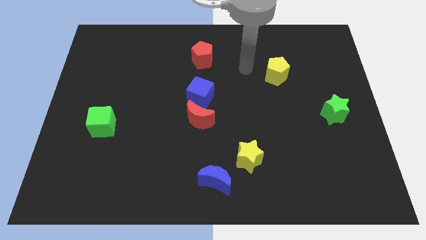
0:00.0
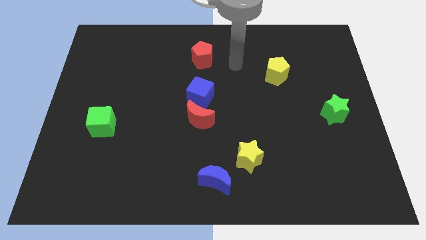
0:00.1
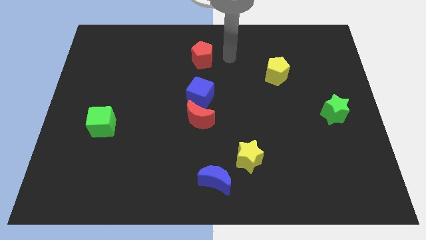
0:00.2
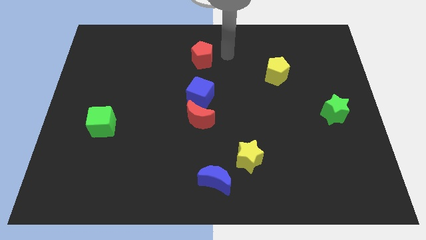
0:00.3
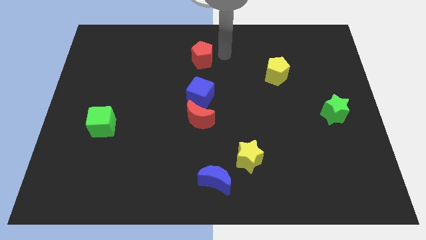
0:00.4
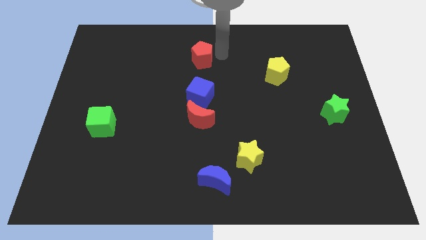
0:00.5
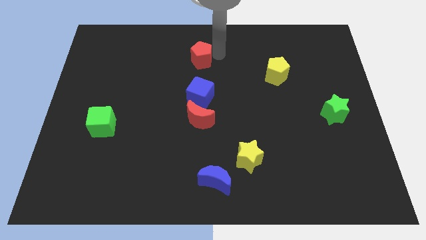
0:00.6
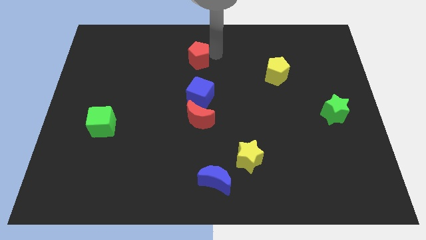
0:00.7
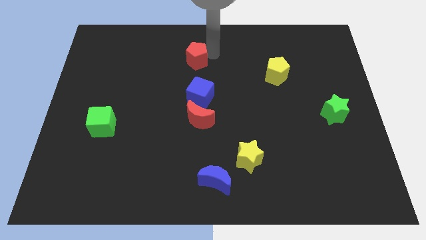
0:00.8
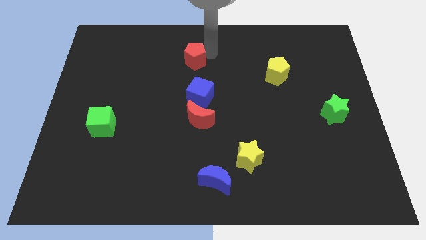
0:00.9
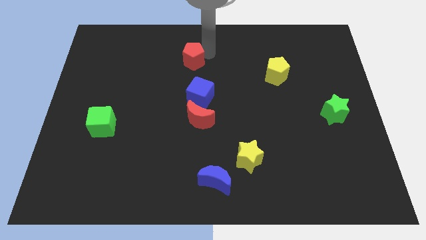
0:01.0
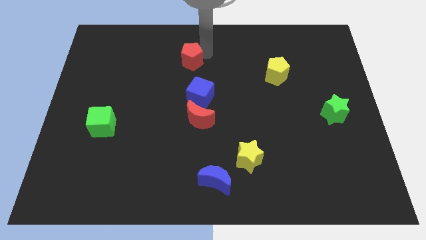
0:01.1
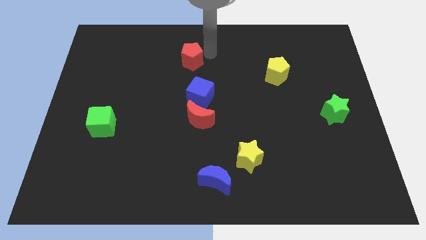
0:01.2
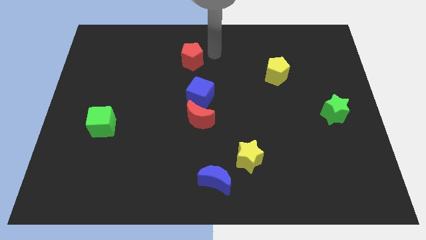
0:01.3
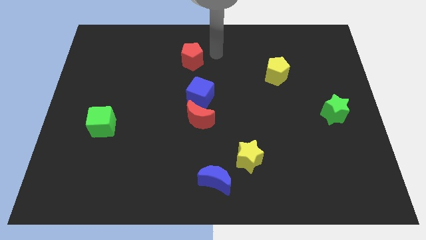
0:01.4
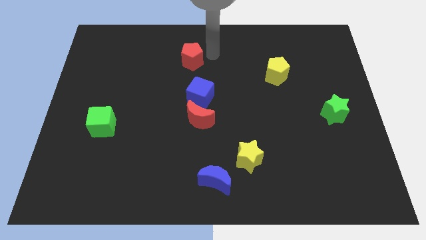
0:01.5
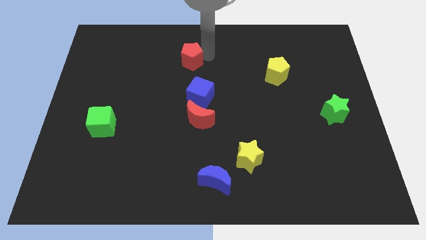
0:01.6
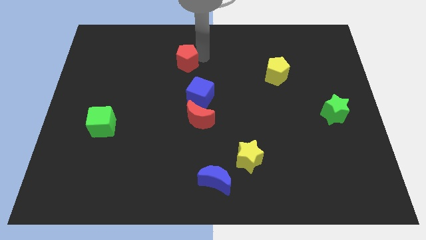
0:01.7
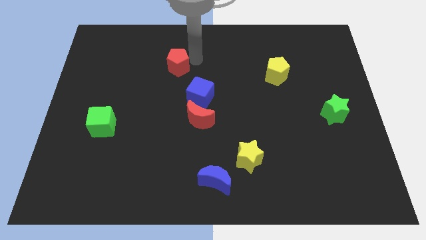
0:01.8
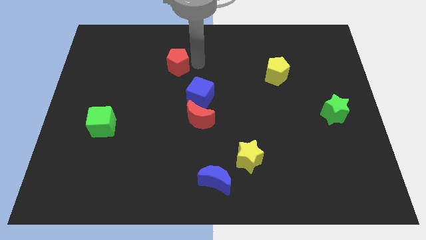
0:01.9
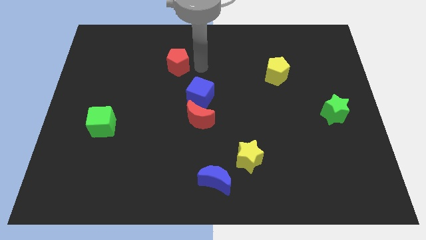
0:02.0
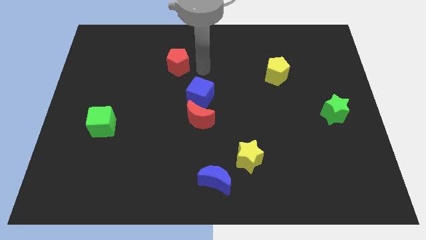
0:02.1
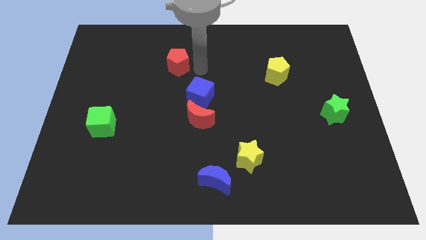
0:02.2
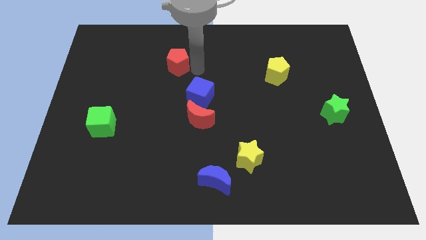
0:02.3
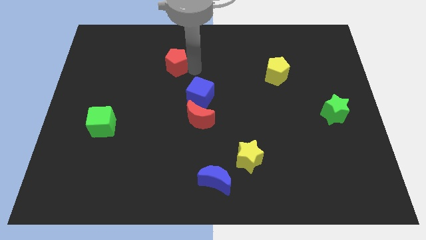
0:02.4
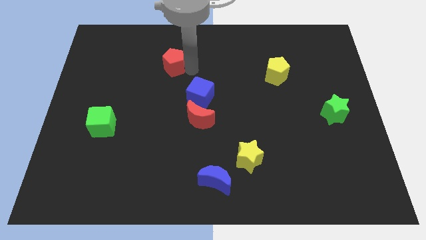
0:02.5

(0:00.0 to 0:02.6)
slightly push the red pentagon to the left

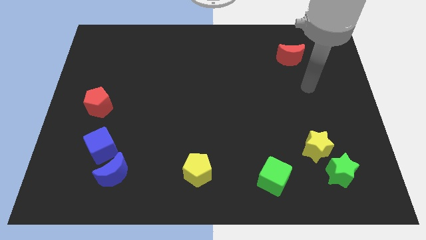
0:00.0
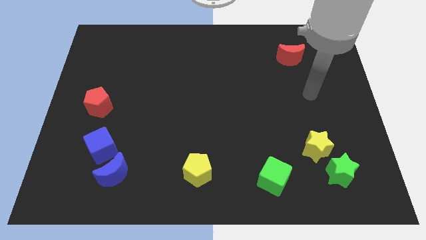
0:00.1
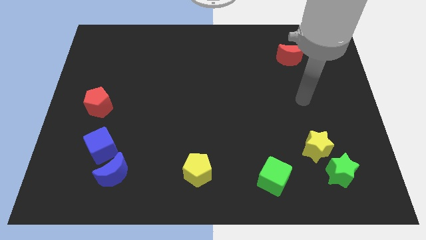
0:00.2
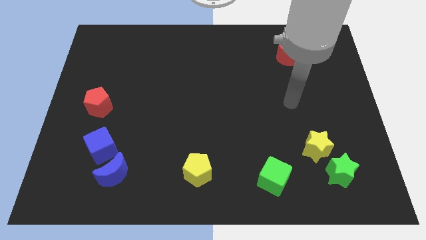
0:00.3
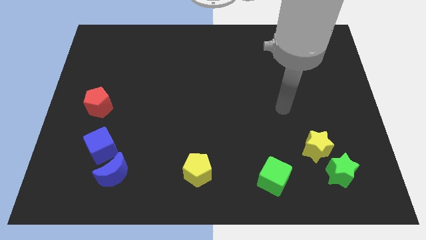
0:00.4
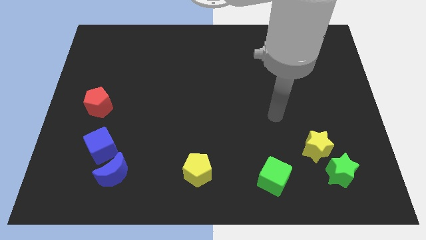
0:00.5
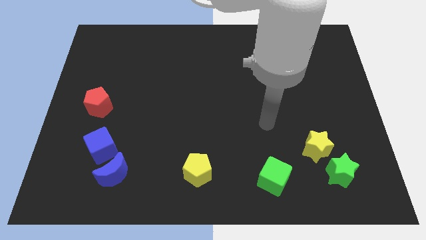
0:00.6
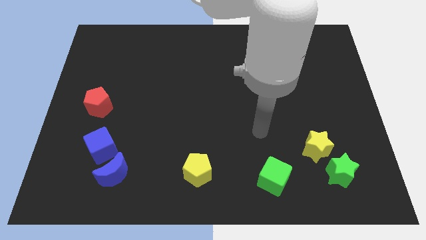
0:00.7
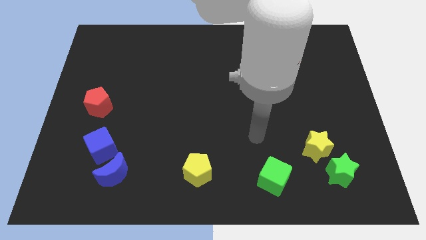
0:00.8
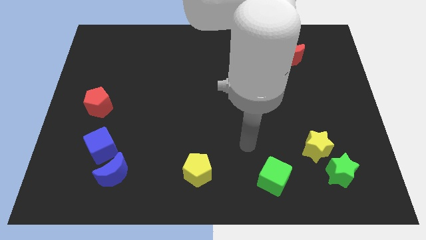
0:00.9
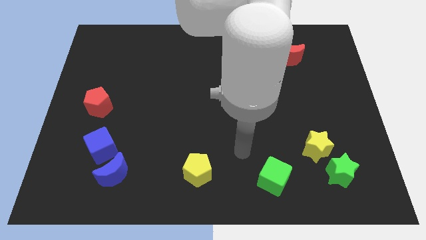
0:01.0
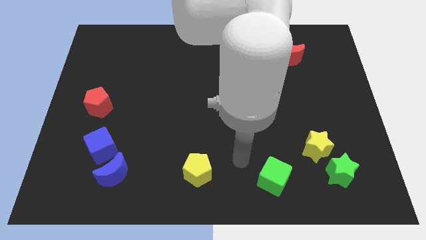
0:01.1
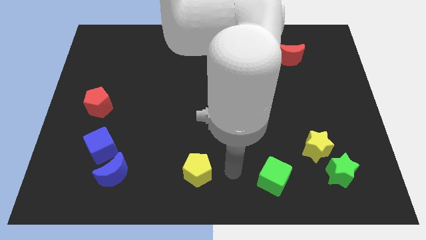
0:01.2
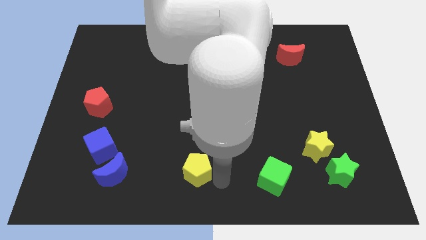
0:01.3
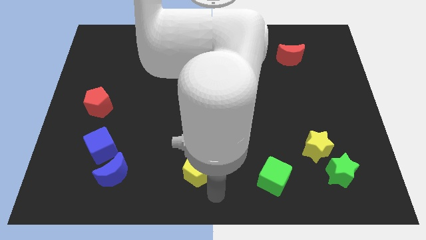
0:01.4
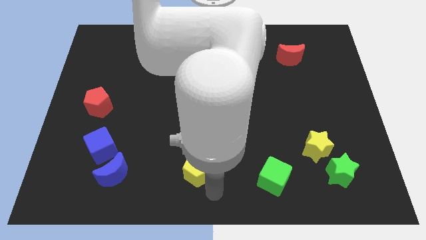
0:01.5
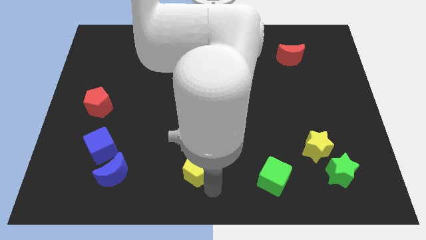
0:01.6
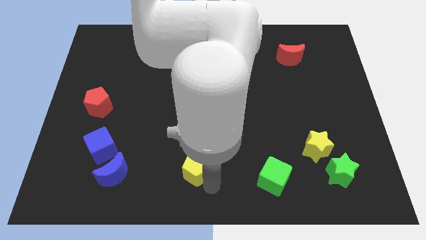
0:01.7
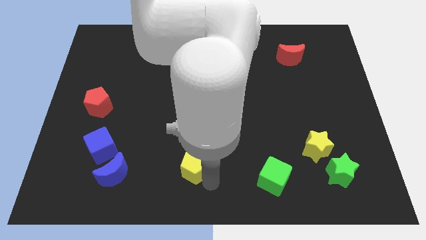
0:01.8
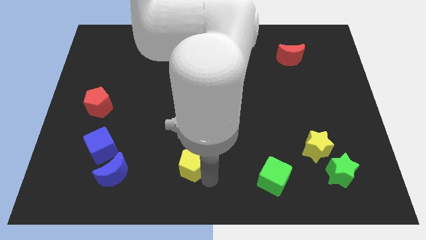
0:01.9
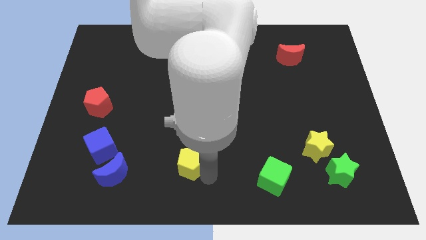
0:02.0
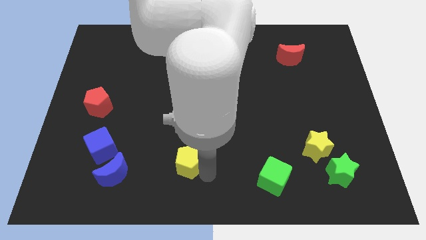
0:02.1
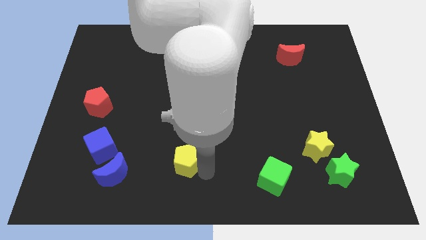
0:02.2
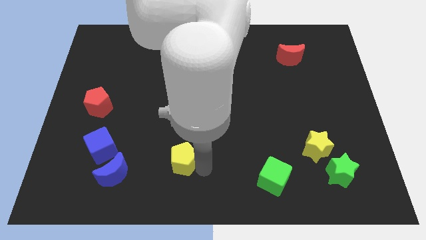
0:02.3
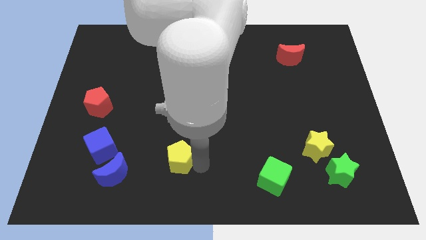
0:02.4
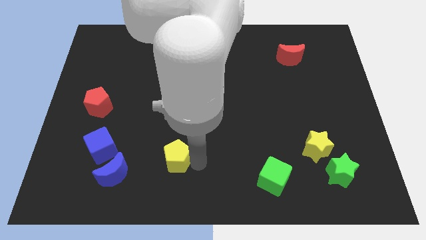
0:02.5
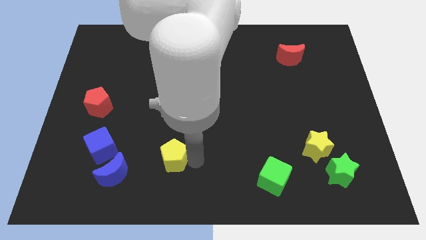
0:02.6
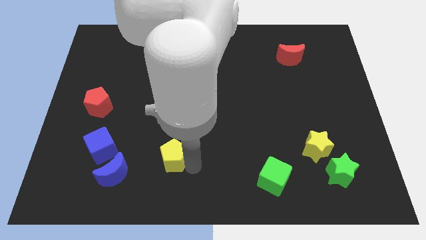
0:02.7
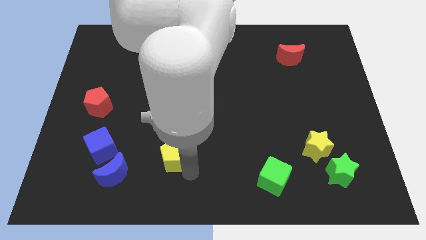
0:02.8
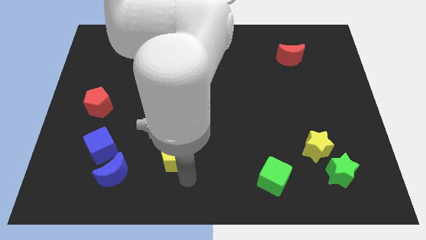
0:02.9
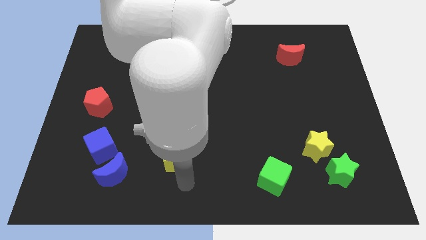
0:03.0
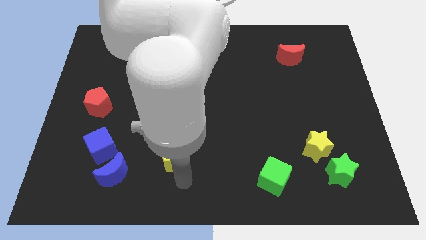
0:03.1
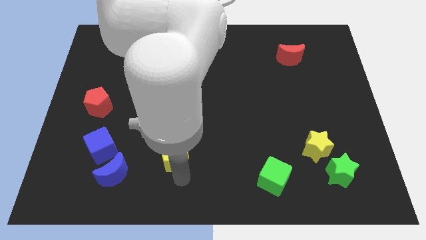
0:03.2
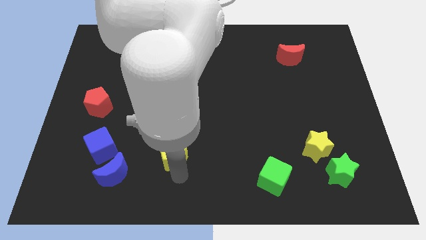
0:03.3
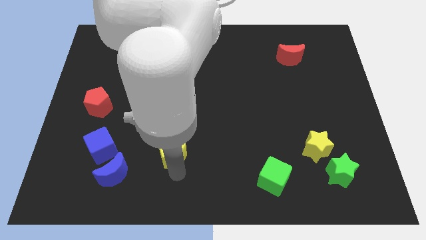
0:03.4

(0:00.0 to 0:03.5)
slightly push the yellow pentagon up and then left

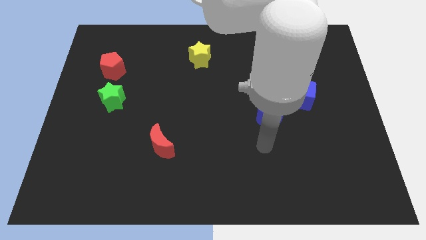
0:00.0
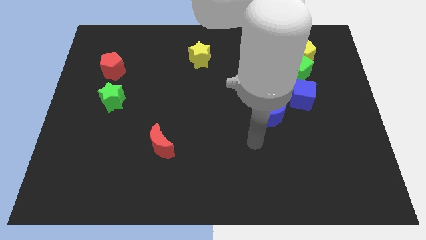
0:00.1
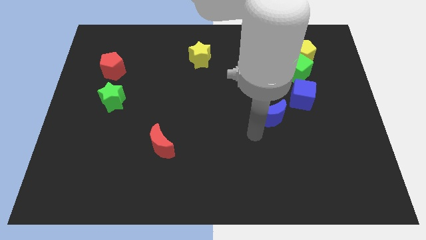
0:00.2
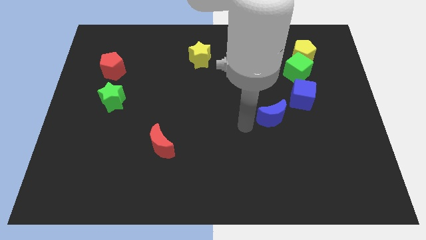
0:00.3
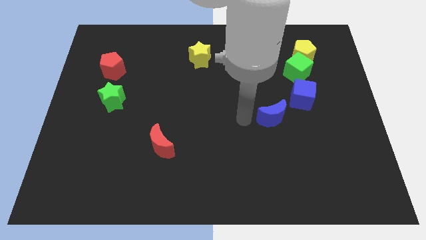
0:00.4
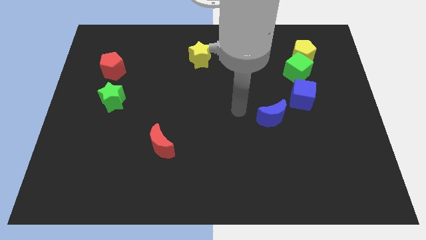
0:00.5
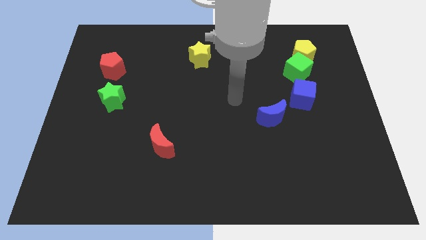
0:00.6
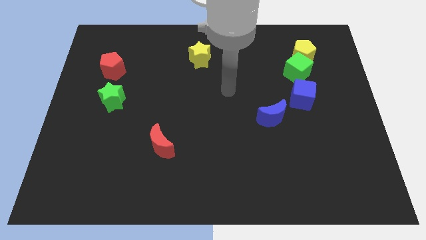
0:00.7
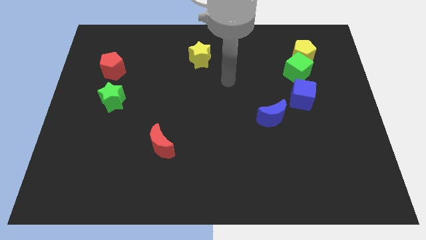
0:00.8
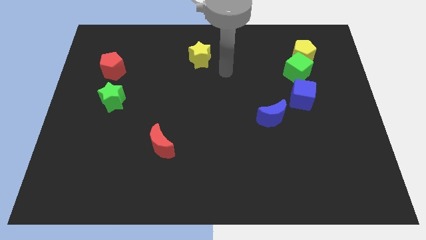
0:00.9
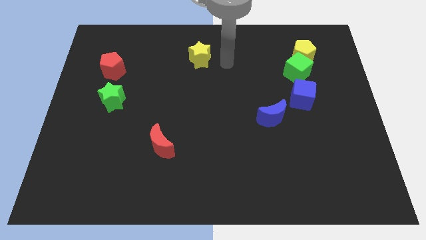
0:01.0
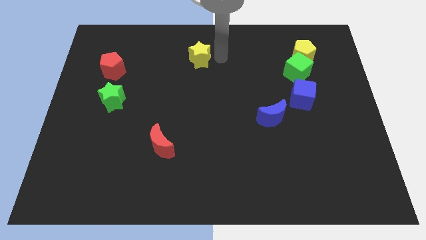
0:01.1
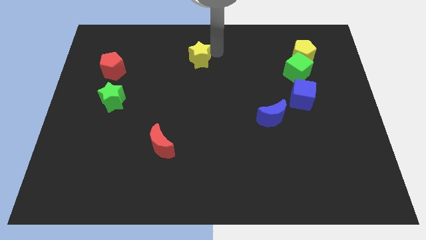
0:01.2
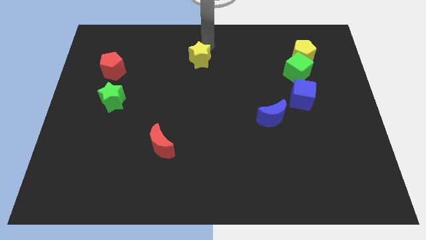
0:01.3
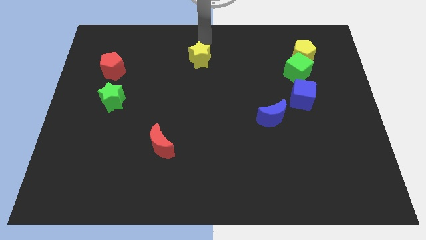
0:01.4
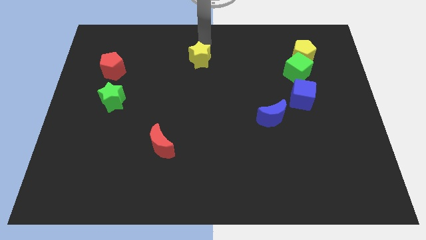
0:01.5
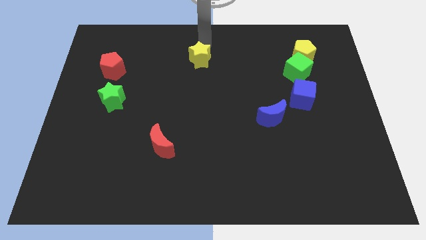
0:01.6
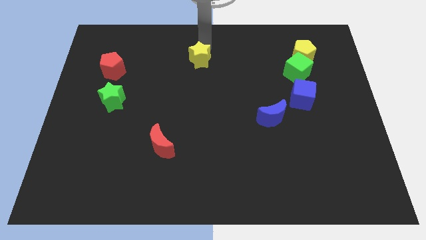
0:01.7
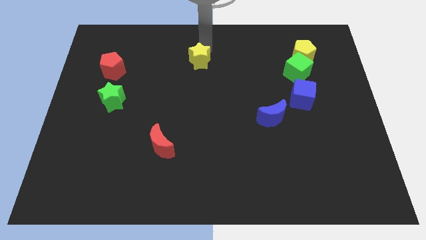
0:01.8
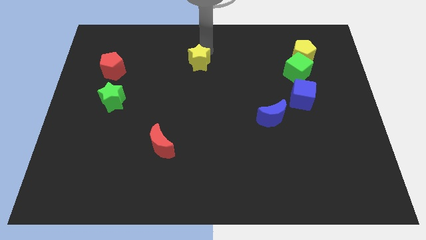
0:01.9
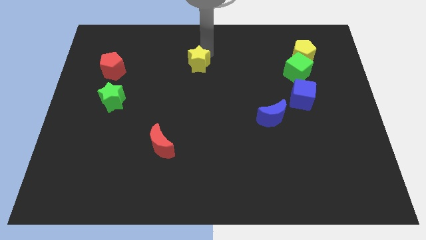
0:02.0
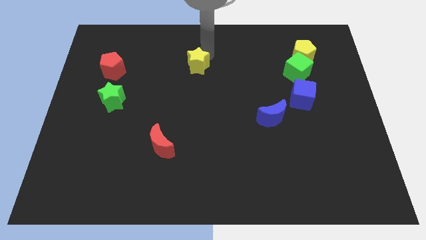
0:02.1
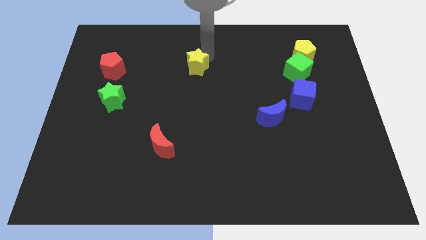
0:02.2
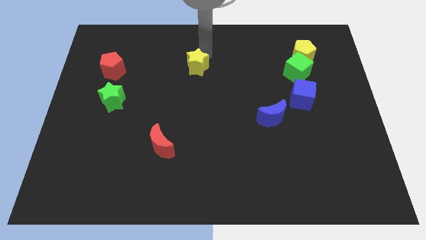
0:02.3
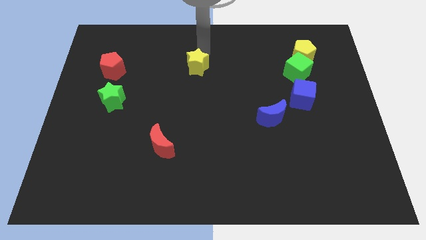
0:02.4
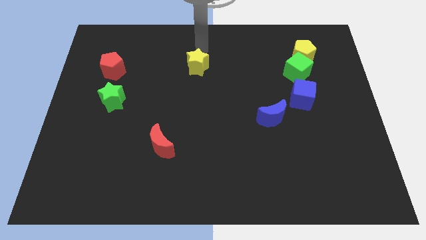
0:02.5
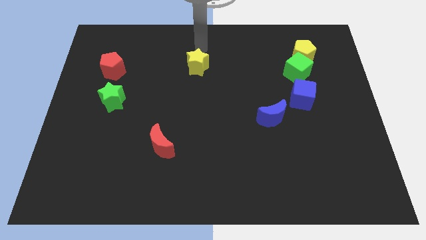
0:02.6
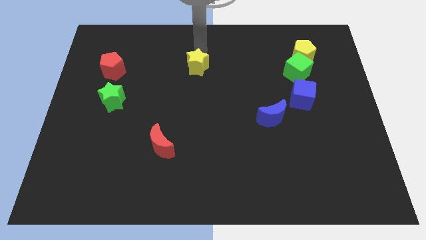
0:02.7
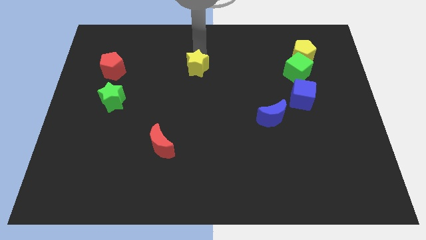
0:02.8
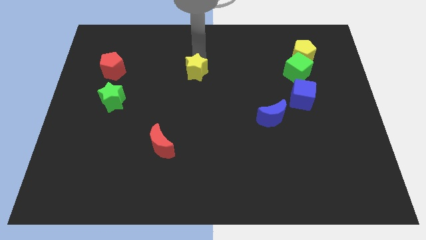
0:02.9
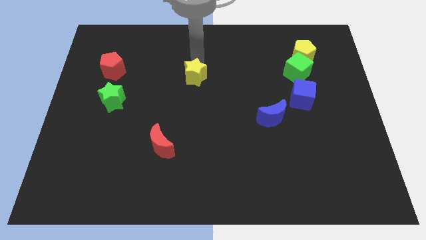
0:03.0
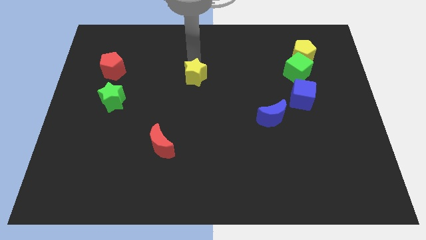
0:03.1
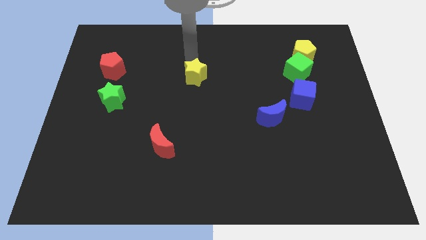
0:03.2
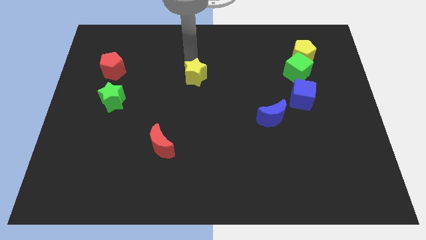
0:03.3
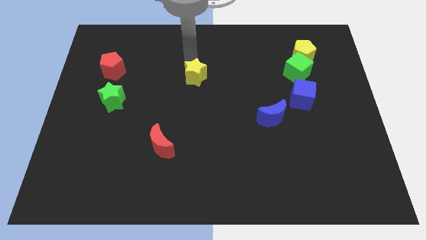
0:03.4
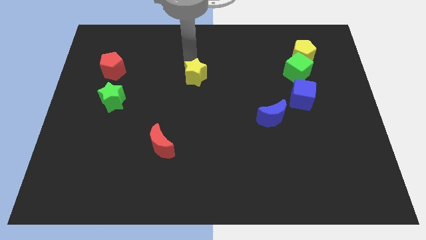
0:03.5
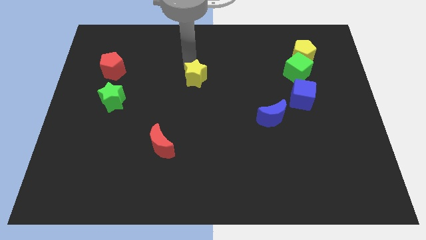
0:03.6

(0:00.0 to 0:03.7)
push the yellow star down somewhat
